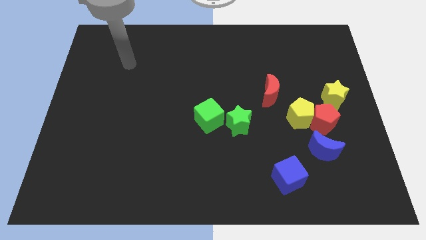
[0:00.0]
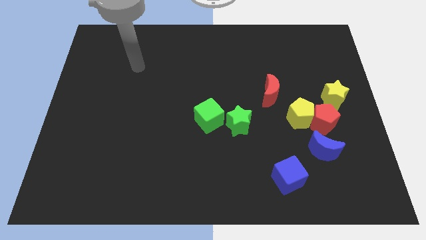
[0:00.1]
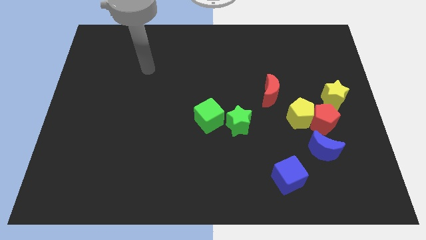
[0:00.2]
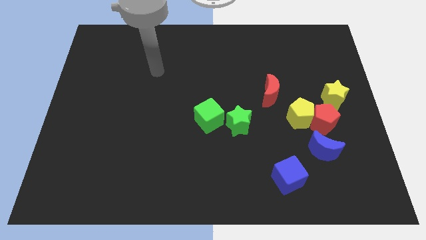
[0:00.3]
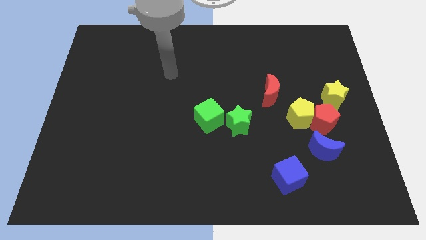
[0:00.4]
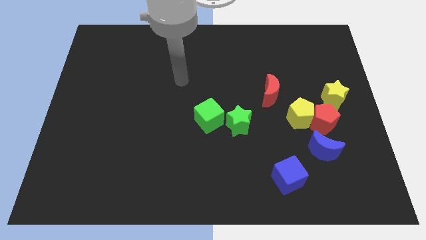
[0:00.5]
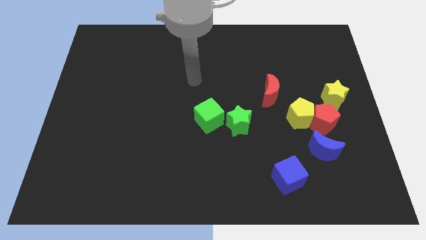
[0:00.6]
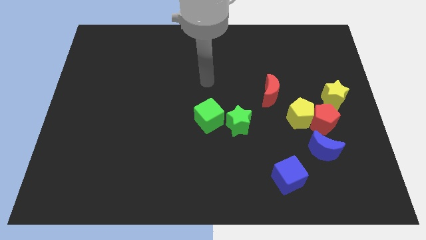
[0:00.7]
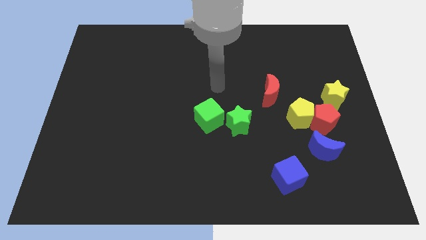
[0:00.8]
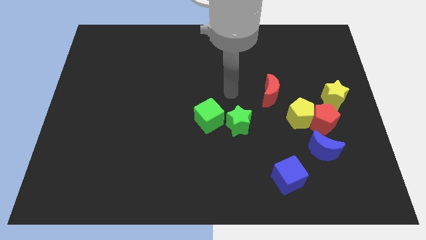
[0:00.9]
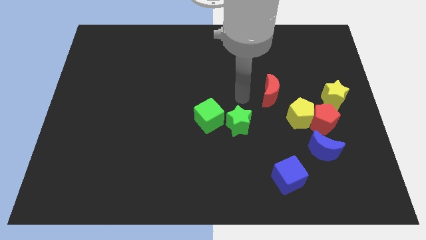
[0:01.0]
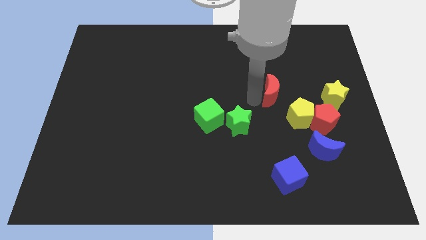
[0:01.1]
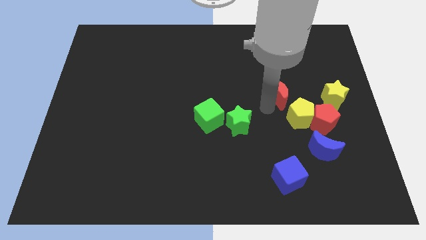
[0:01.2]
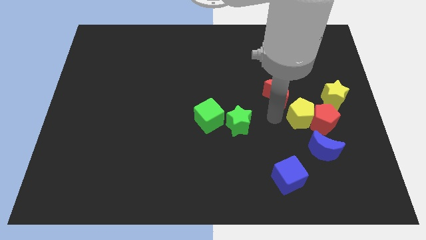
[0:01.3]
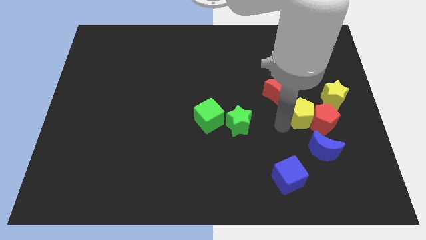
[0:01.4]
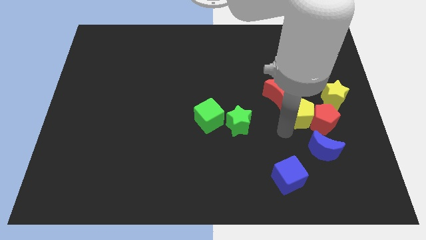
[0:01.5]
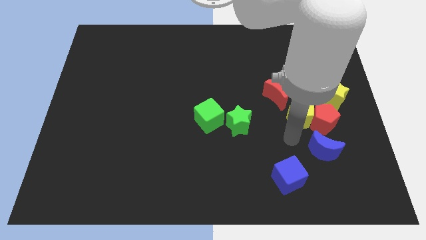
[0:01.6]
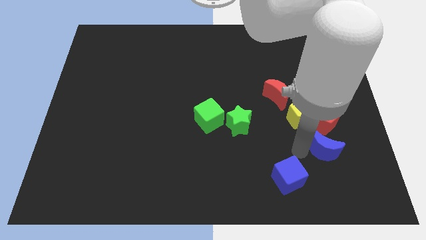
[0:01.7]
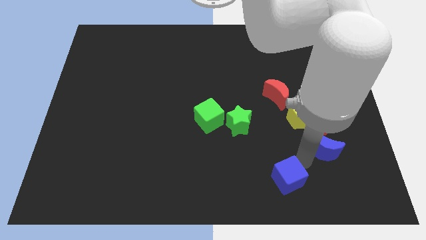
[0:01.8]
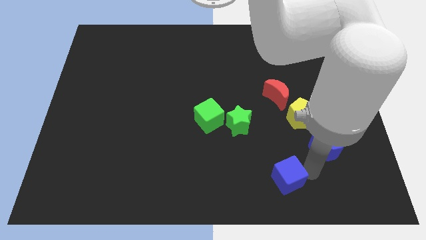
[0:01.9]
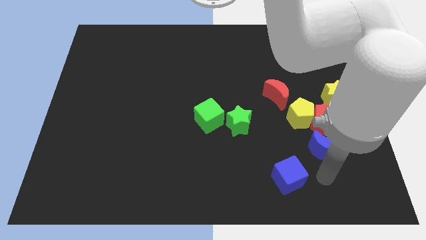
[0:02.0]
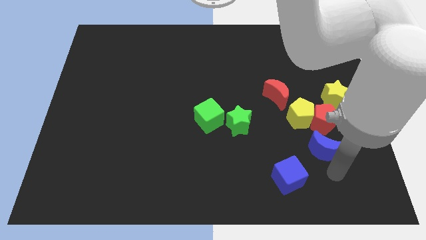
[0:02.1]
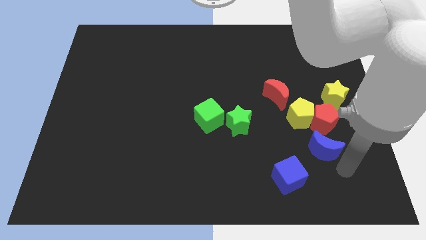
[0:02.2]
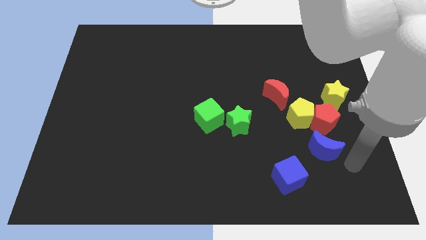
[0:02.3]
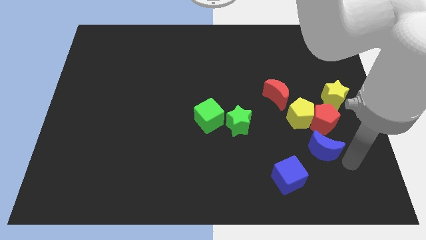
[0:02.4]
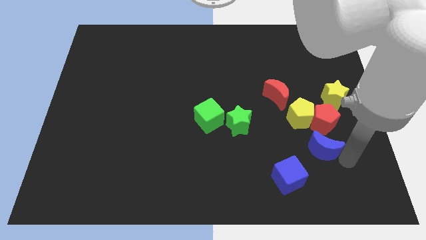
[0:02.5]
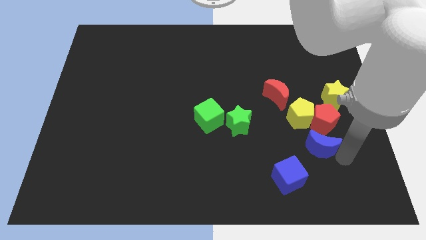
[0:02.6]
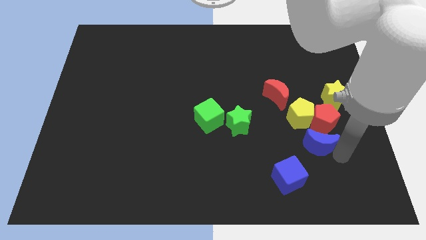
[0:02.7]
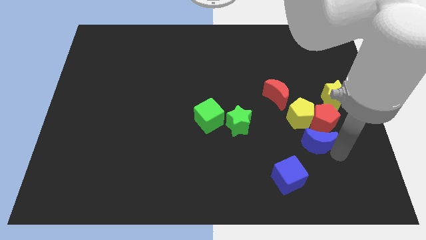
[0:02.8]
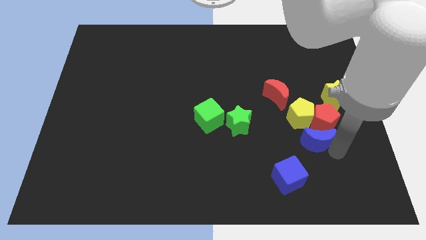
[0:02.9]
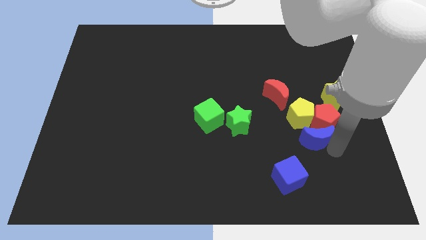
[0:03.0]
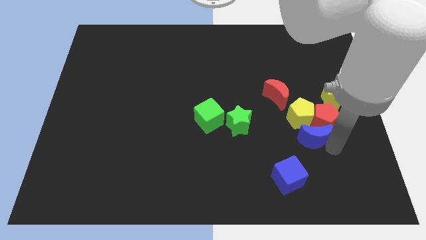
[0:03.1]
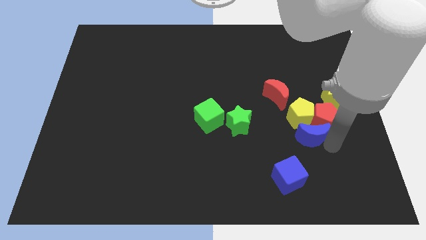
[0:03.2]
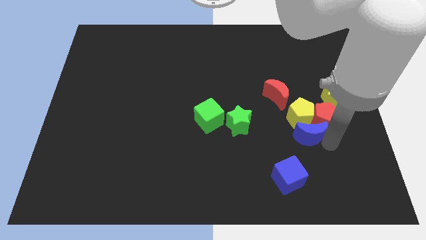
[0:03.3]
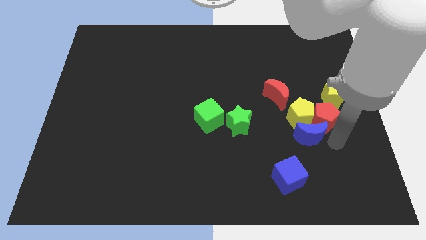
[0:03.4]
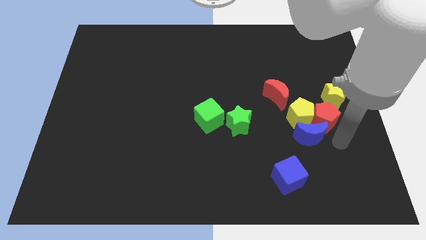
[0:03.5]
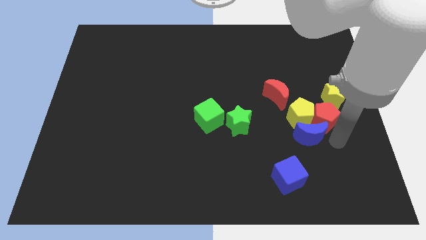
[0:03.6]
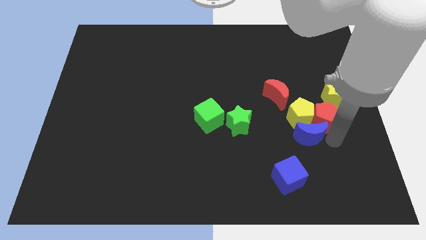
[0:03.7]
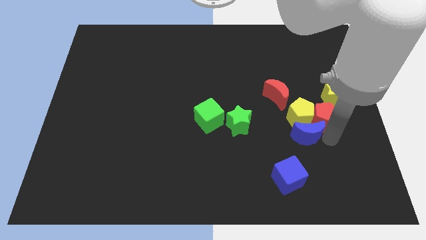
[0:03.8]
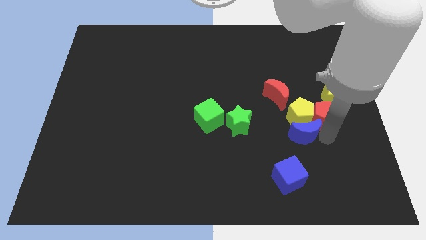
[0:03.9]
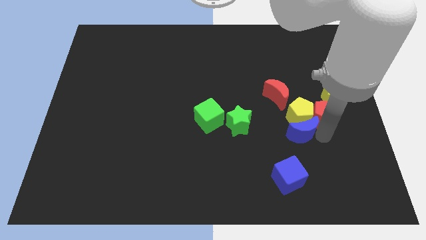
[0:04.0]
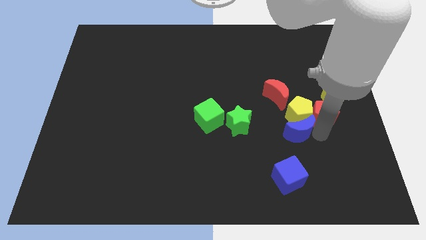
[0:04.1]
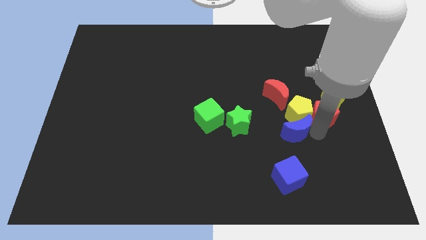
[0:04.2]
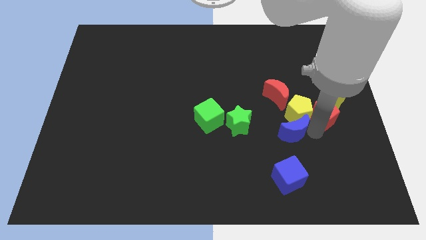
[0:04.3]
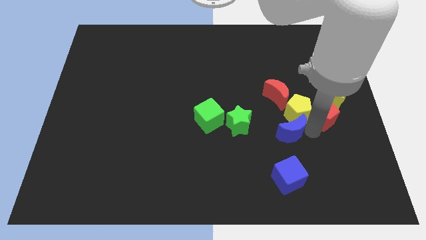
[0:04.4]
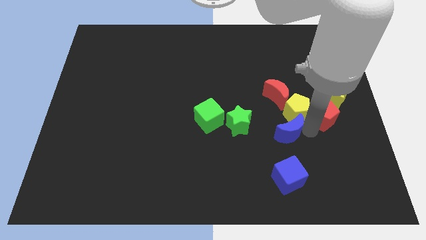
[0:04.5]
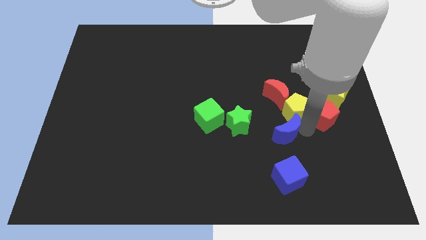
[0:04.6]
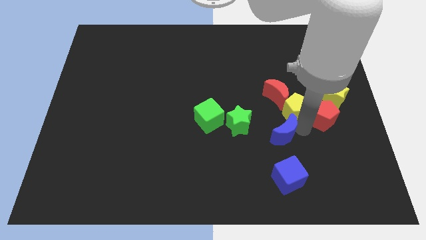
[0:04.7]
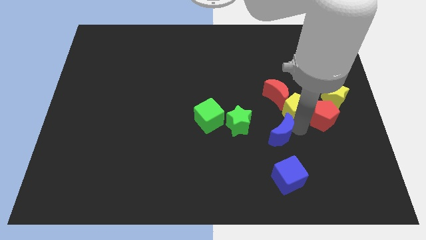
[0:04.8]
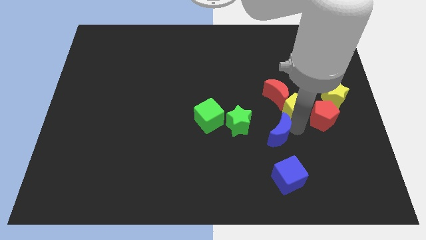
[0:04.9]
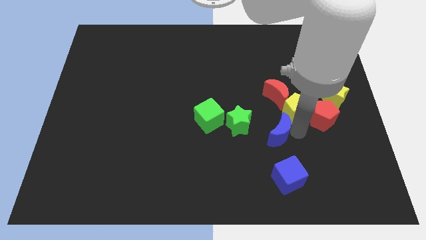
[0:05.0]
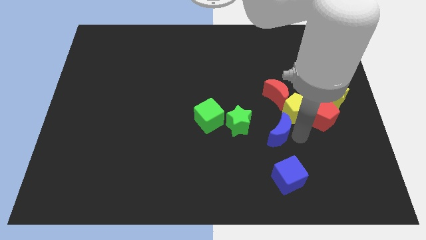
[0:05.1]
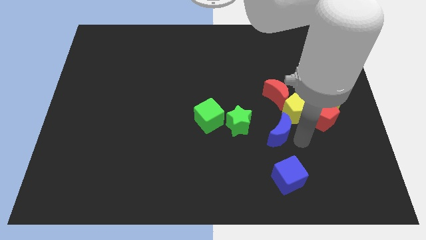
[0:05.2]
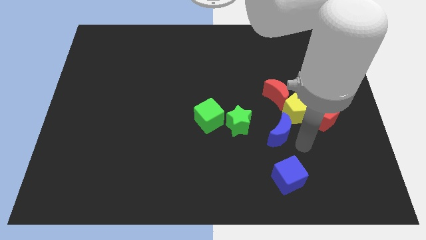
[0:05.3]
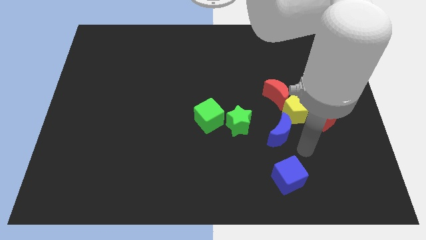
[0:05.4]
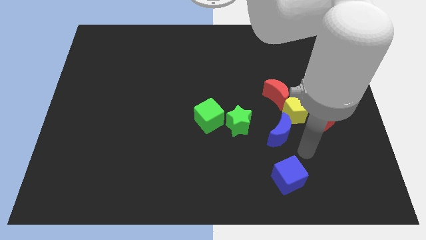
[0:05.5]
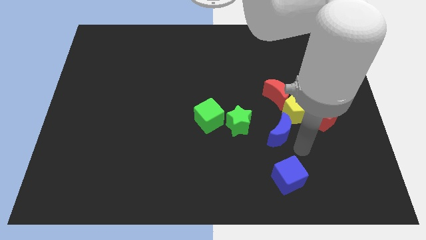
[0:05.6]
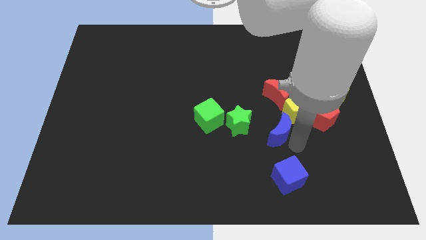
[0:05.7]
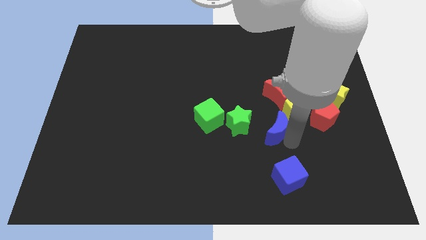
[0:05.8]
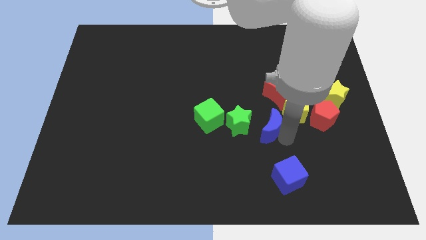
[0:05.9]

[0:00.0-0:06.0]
push the blue moon to the left side of the yellow pentagon
